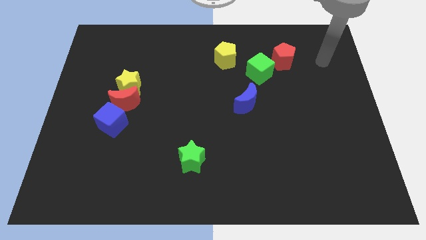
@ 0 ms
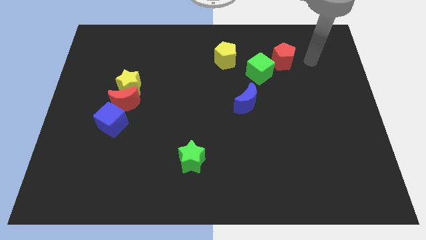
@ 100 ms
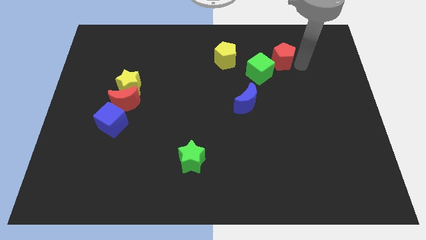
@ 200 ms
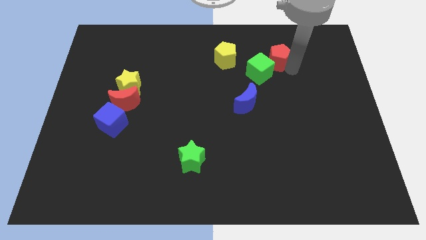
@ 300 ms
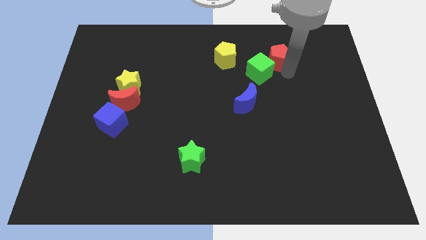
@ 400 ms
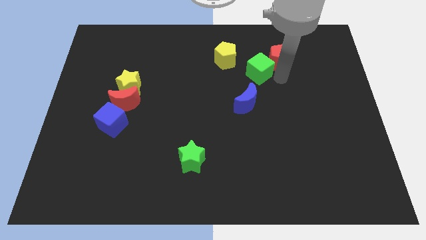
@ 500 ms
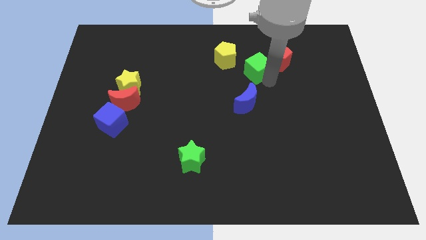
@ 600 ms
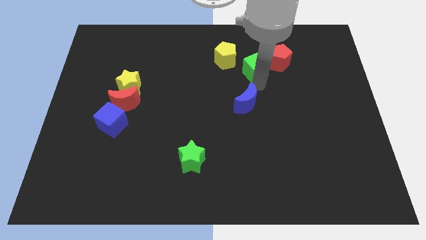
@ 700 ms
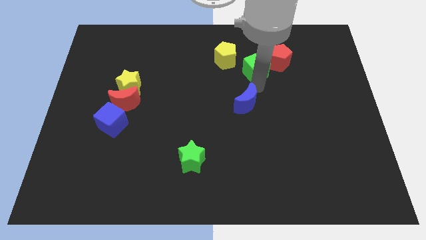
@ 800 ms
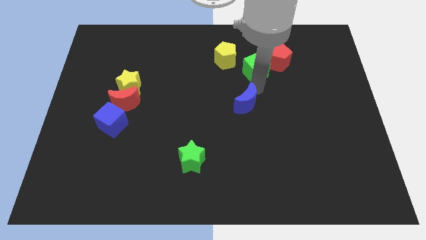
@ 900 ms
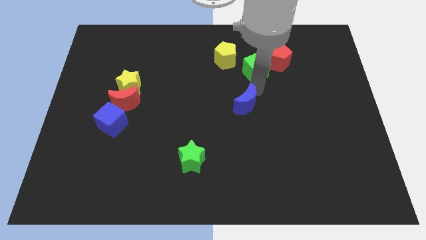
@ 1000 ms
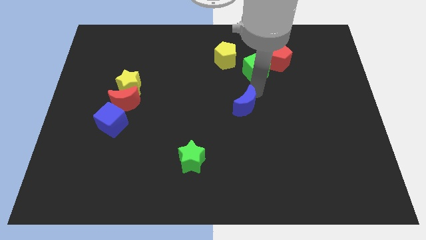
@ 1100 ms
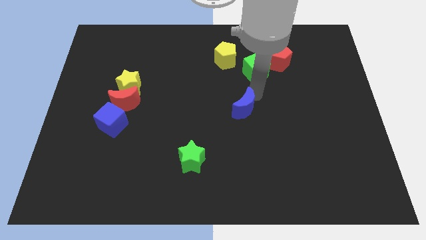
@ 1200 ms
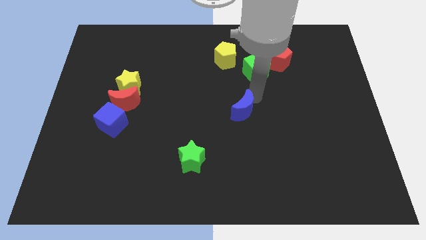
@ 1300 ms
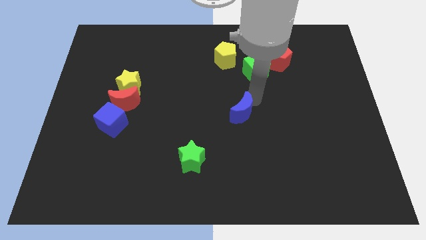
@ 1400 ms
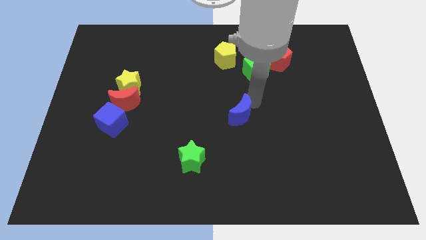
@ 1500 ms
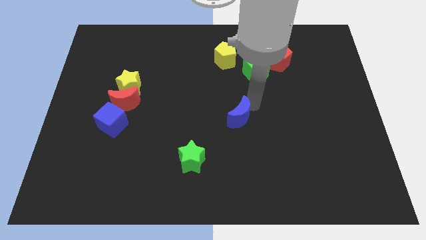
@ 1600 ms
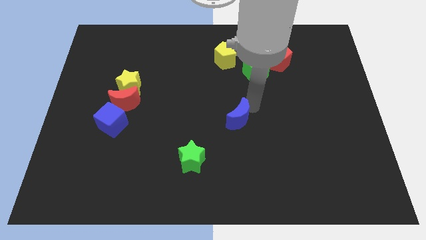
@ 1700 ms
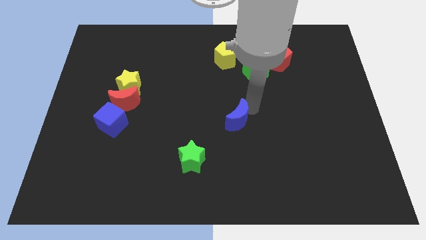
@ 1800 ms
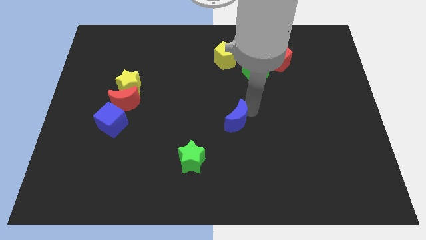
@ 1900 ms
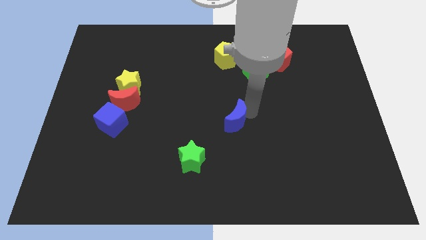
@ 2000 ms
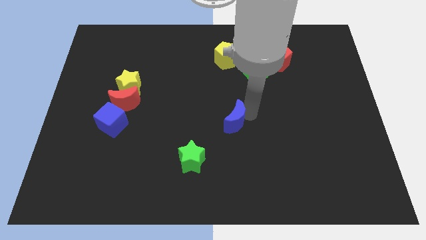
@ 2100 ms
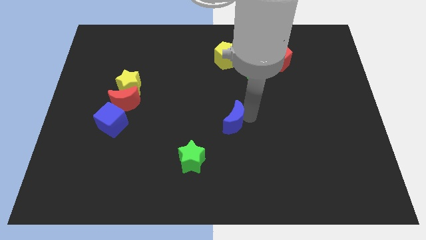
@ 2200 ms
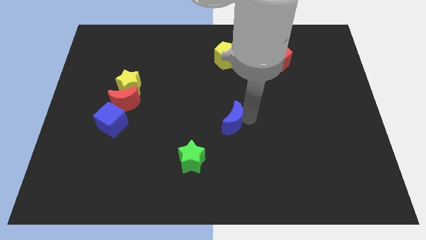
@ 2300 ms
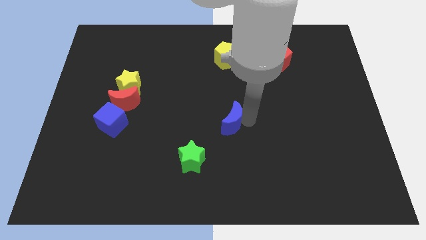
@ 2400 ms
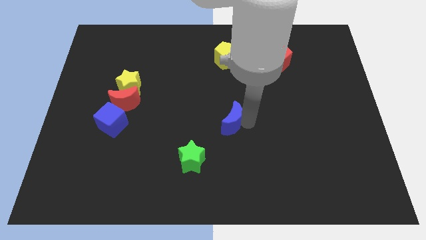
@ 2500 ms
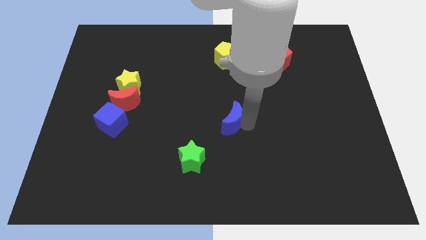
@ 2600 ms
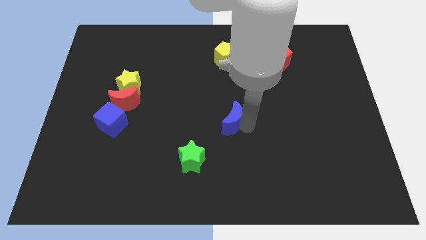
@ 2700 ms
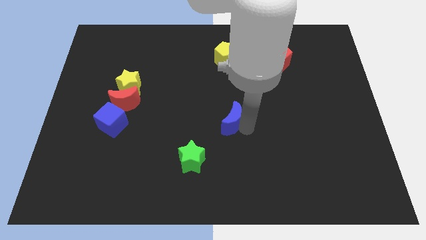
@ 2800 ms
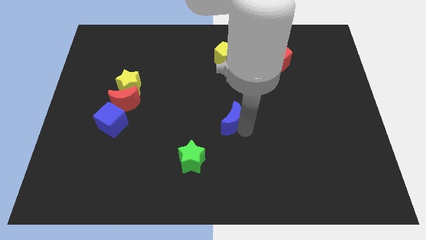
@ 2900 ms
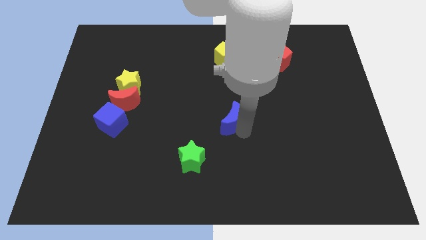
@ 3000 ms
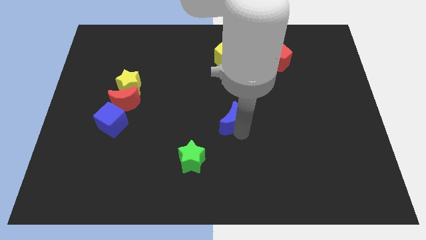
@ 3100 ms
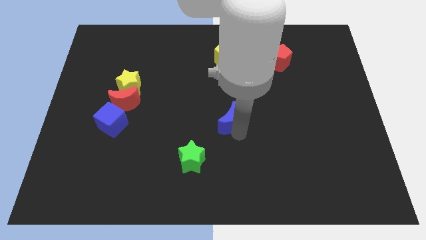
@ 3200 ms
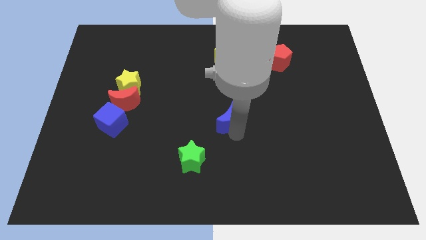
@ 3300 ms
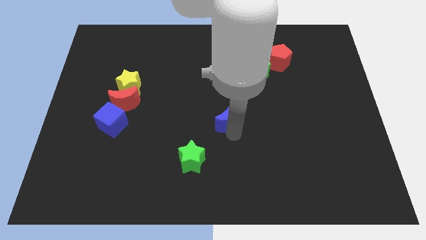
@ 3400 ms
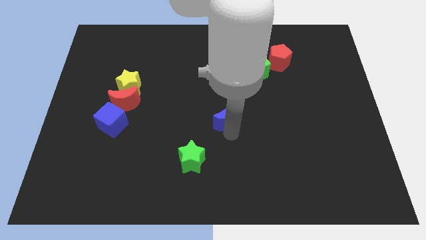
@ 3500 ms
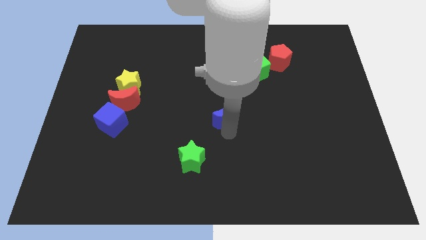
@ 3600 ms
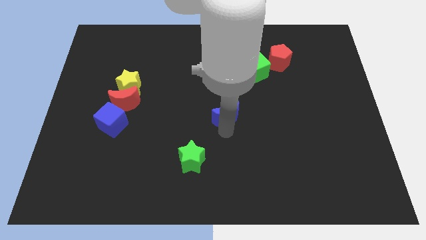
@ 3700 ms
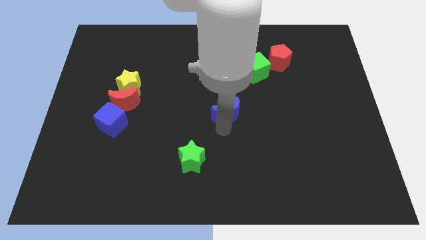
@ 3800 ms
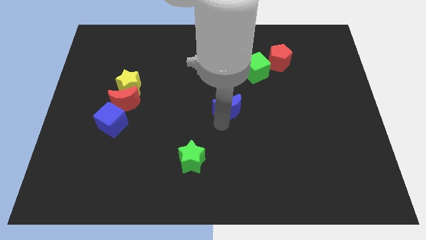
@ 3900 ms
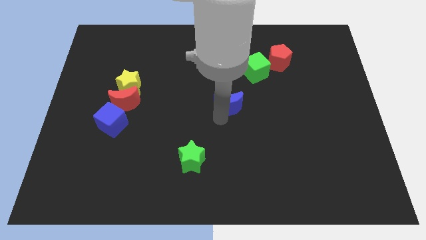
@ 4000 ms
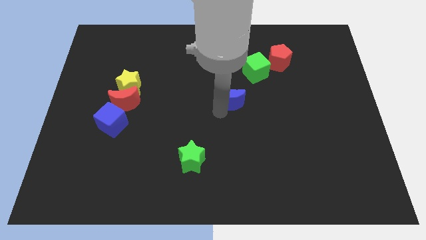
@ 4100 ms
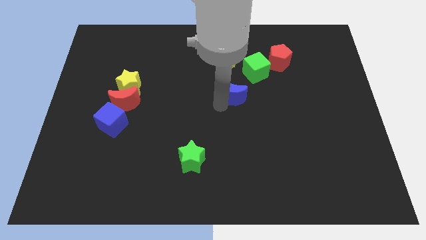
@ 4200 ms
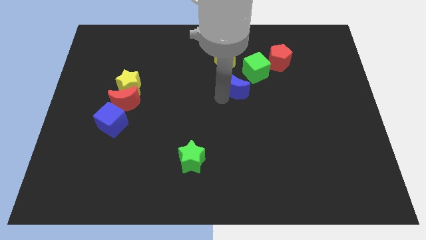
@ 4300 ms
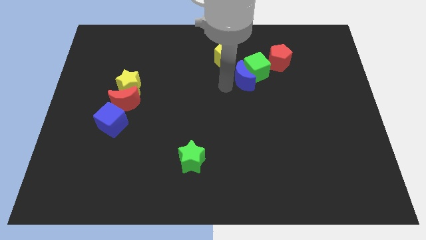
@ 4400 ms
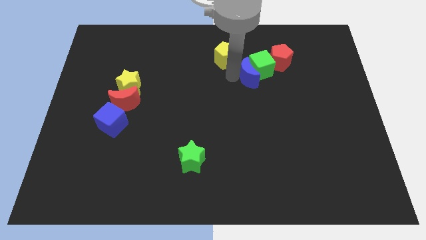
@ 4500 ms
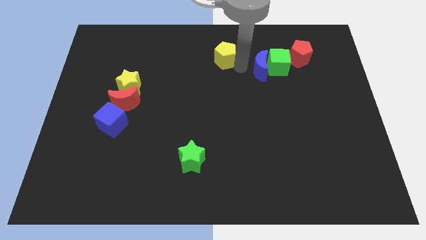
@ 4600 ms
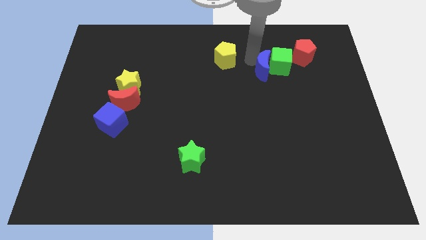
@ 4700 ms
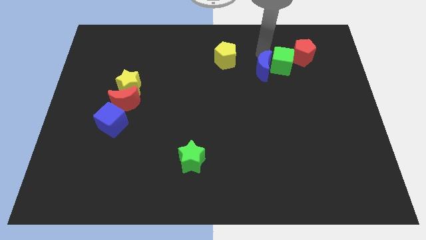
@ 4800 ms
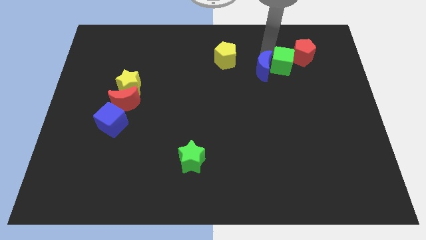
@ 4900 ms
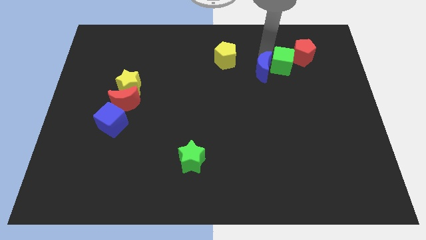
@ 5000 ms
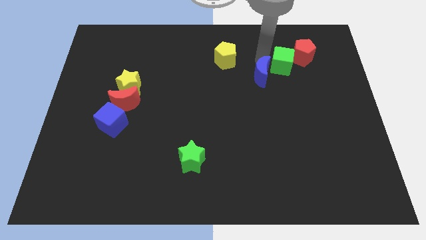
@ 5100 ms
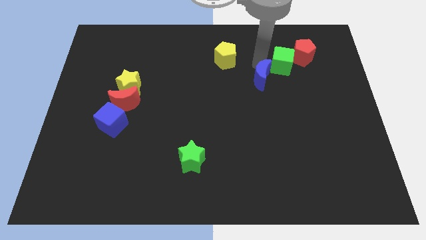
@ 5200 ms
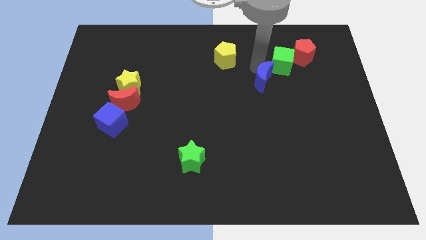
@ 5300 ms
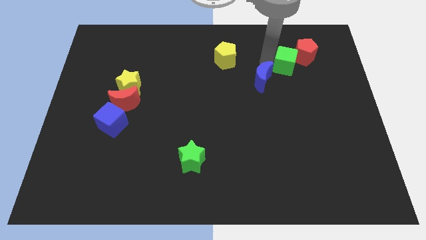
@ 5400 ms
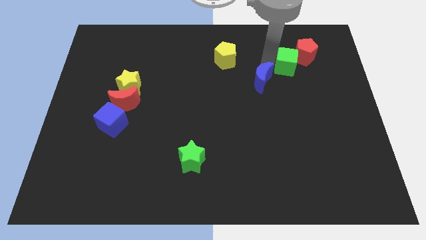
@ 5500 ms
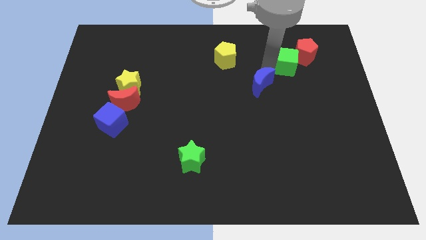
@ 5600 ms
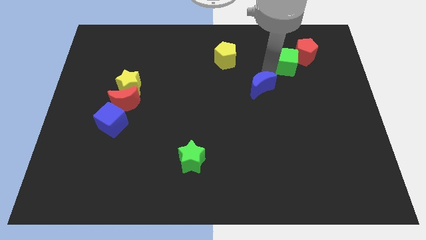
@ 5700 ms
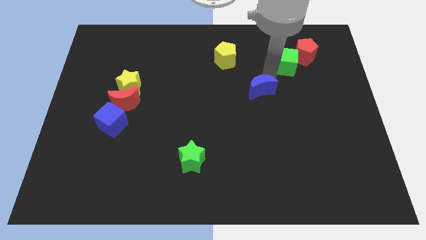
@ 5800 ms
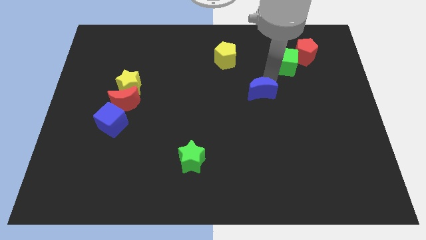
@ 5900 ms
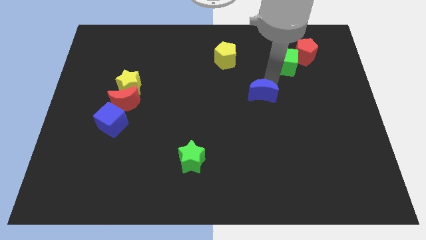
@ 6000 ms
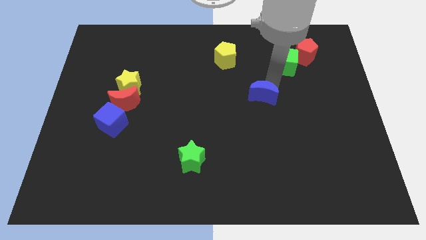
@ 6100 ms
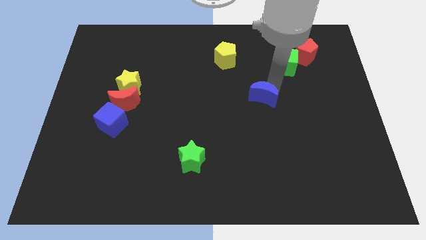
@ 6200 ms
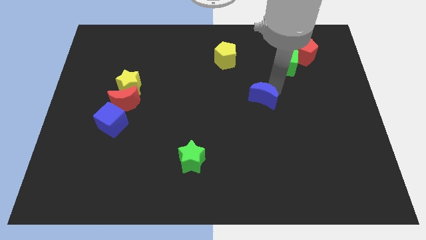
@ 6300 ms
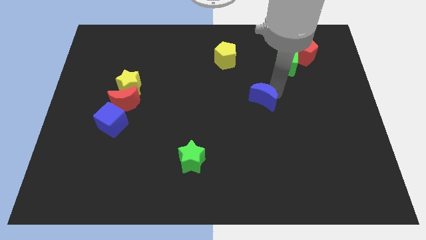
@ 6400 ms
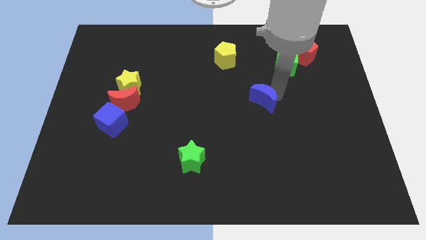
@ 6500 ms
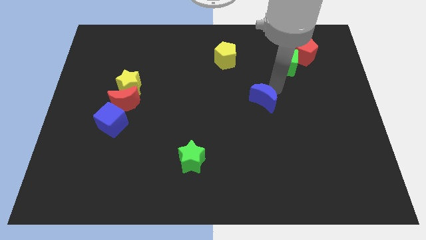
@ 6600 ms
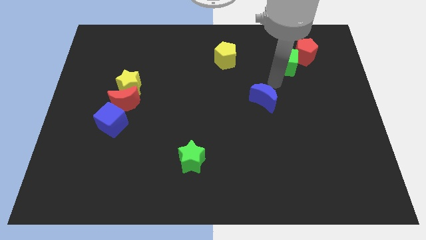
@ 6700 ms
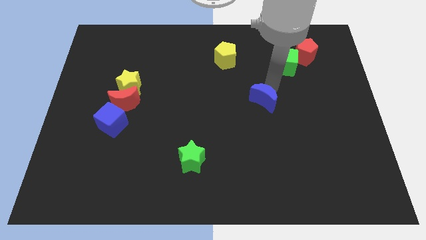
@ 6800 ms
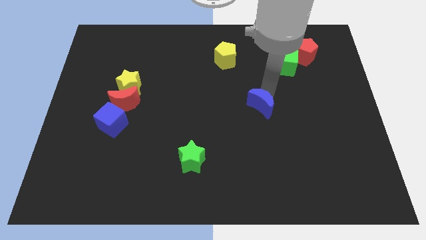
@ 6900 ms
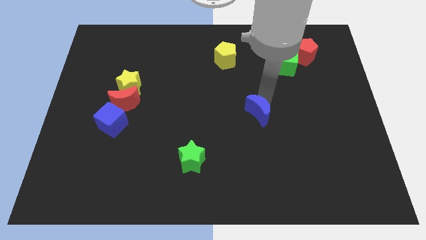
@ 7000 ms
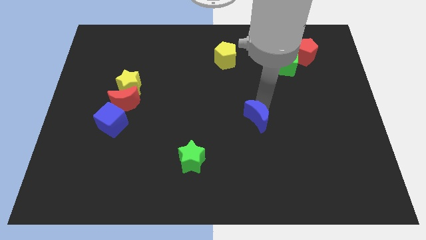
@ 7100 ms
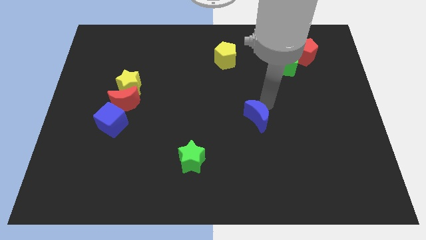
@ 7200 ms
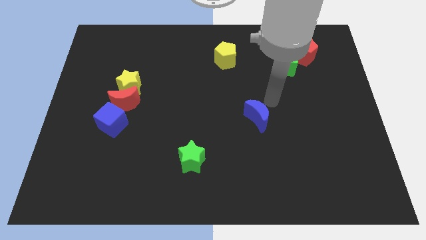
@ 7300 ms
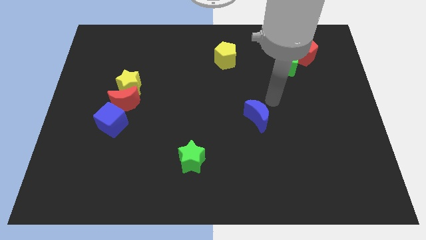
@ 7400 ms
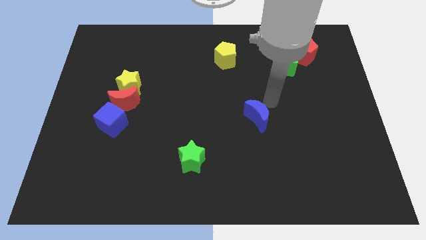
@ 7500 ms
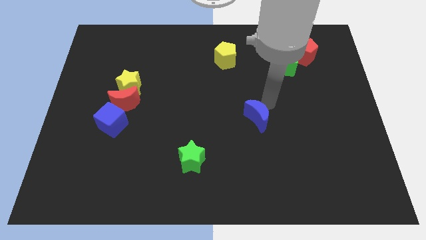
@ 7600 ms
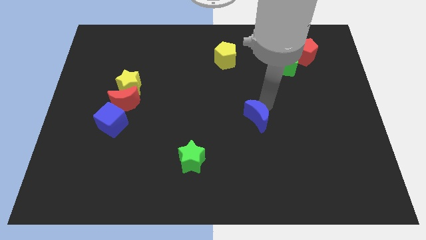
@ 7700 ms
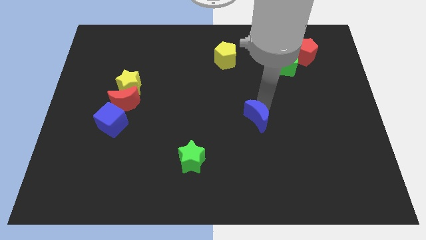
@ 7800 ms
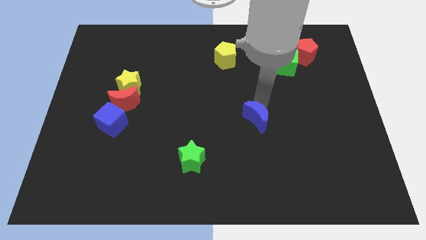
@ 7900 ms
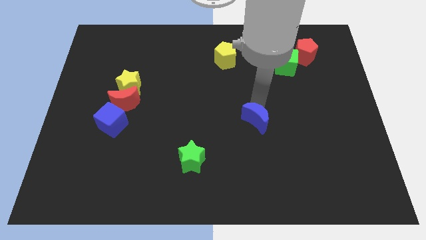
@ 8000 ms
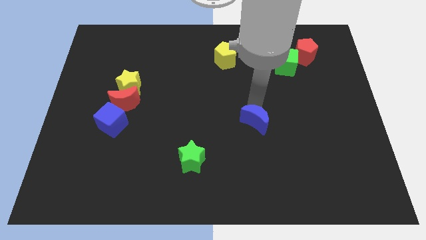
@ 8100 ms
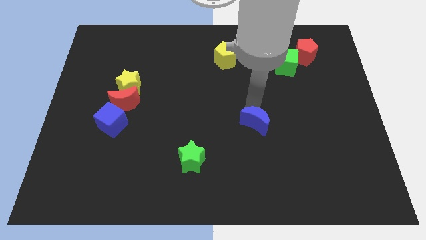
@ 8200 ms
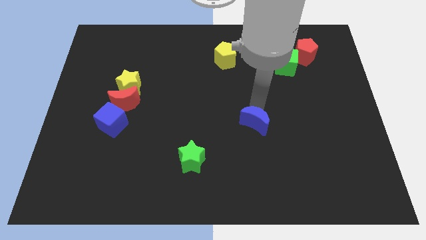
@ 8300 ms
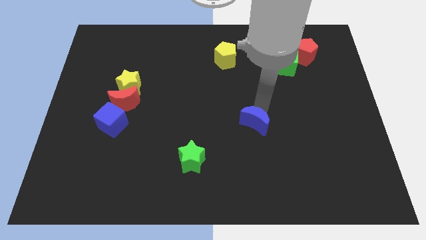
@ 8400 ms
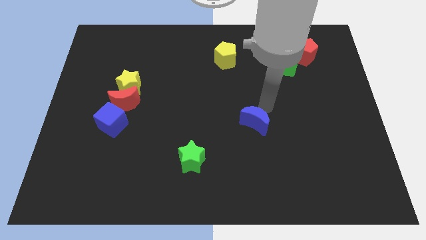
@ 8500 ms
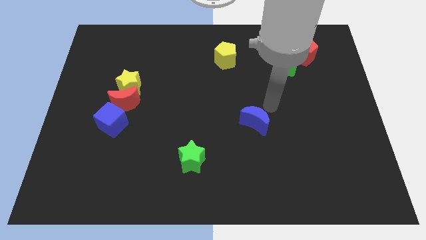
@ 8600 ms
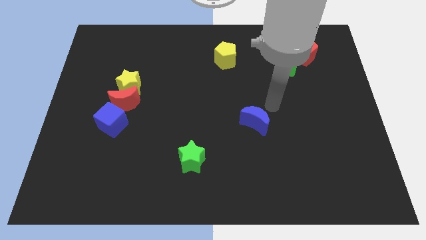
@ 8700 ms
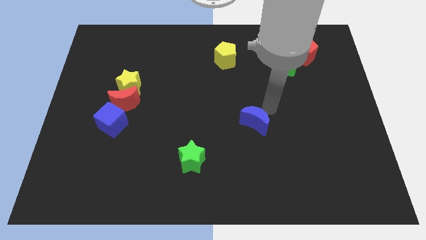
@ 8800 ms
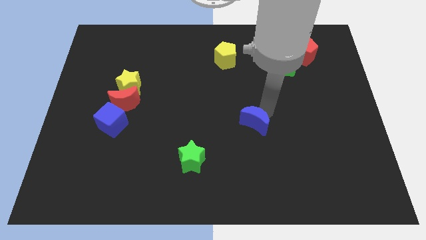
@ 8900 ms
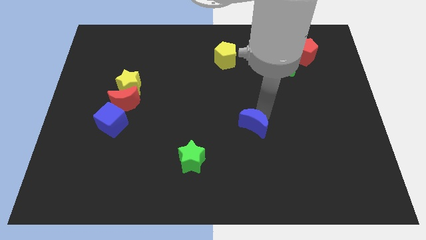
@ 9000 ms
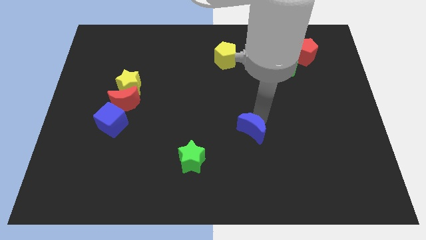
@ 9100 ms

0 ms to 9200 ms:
move the blue moon down somewhat
